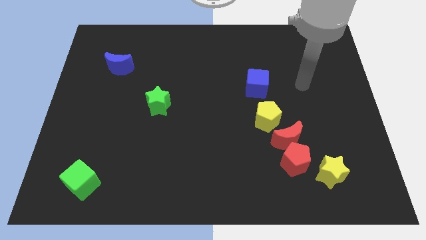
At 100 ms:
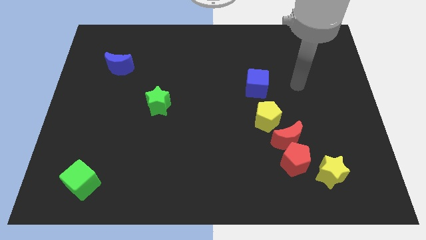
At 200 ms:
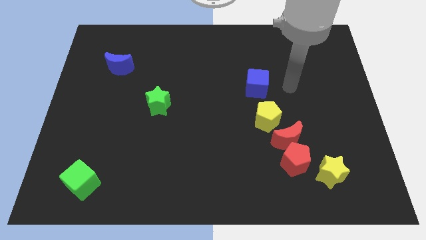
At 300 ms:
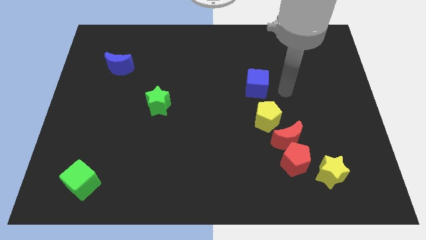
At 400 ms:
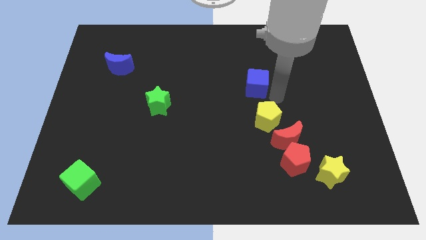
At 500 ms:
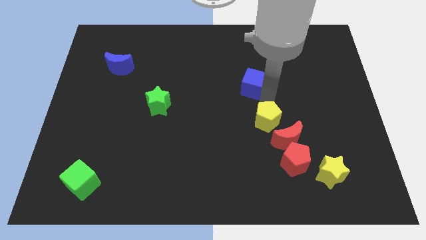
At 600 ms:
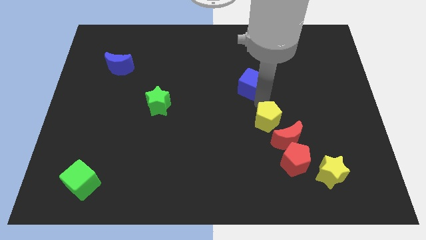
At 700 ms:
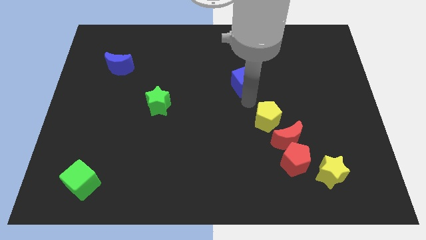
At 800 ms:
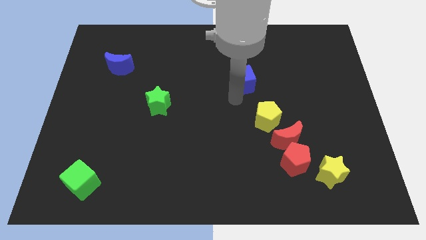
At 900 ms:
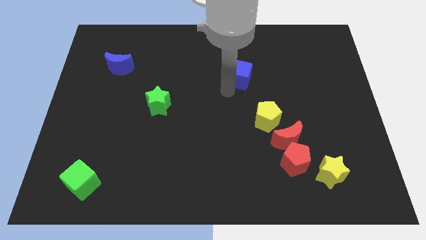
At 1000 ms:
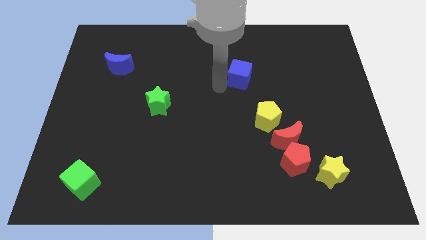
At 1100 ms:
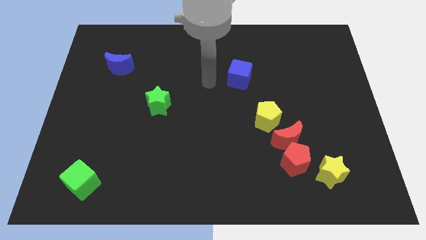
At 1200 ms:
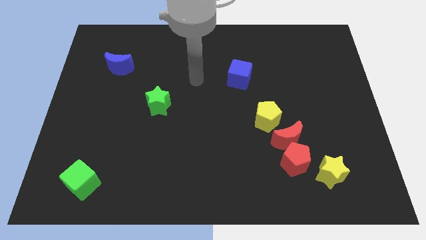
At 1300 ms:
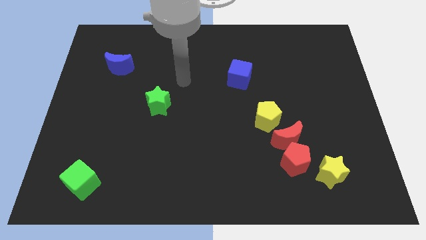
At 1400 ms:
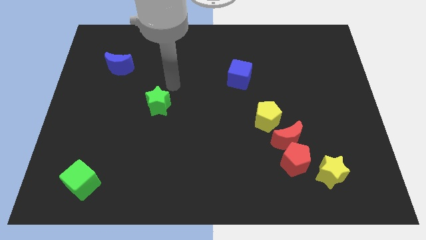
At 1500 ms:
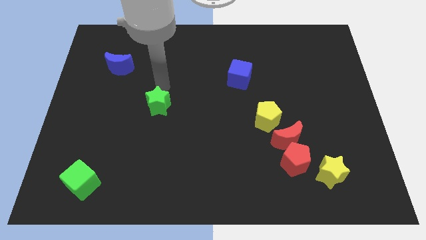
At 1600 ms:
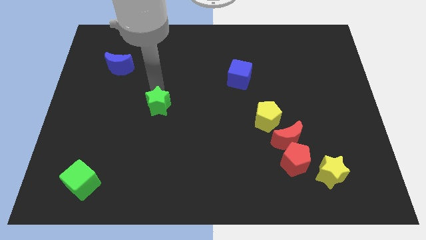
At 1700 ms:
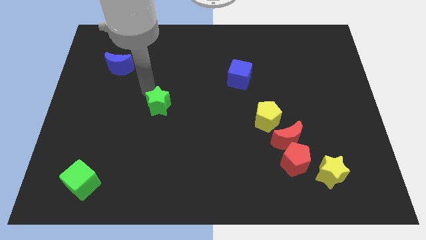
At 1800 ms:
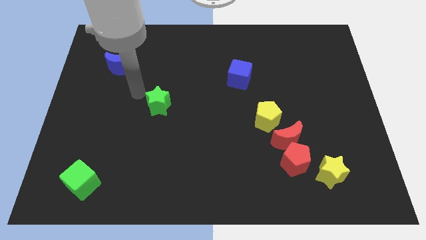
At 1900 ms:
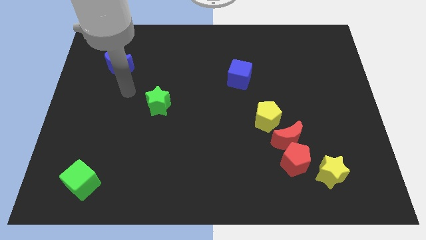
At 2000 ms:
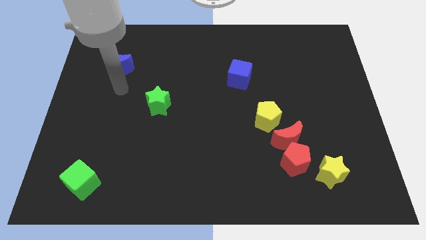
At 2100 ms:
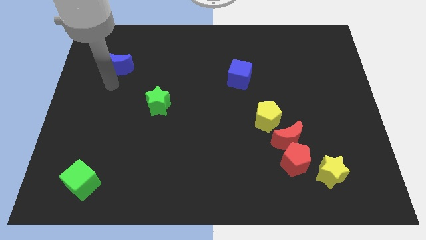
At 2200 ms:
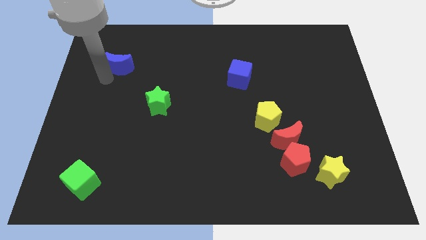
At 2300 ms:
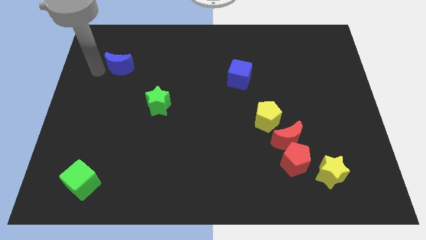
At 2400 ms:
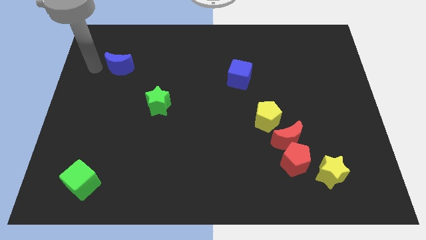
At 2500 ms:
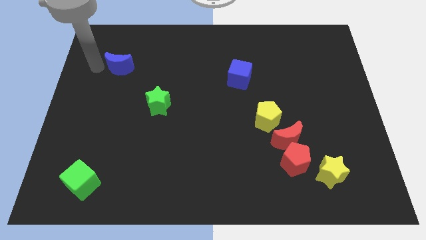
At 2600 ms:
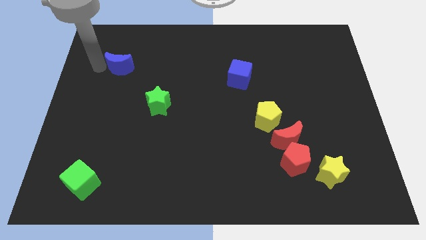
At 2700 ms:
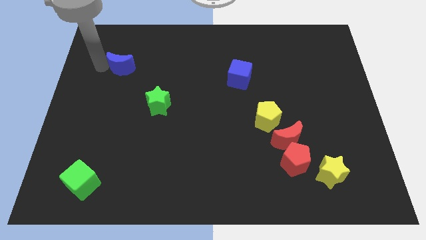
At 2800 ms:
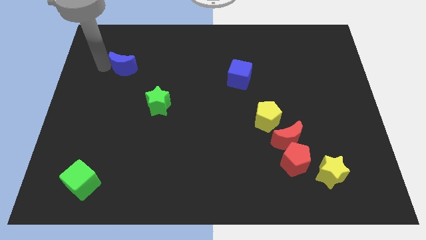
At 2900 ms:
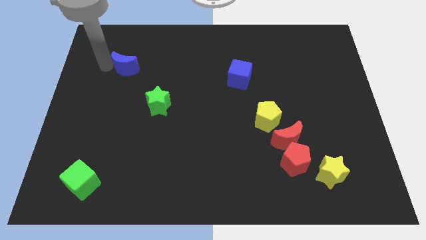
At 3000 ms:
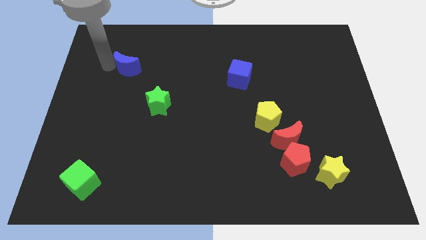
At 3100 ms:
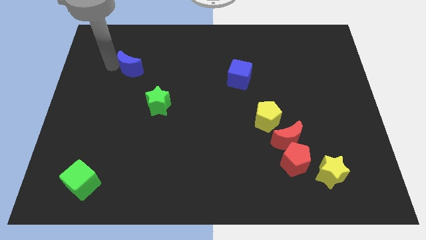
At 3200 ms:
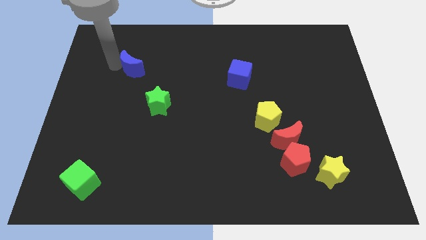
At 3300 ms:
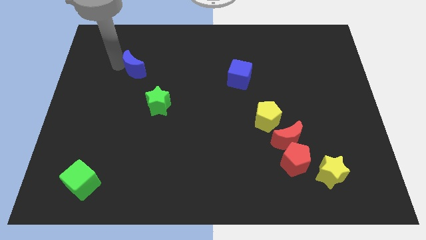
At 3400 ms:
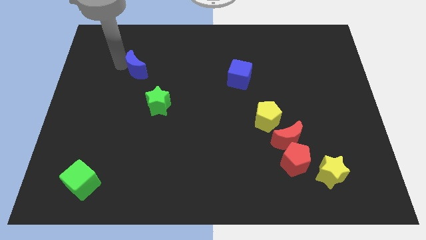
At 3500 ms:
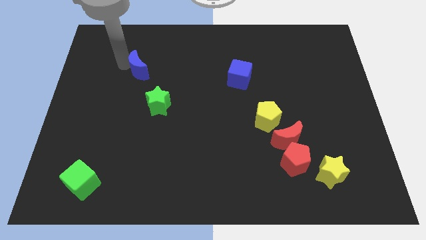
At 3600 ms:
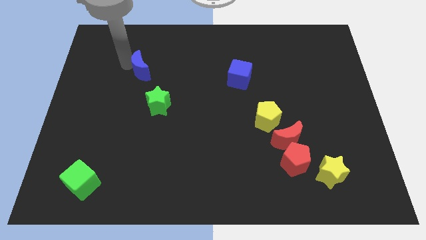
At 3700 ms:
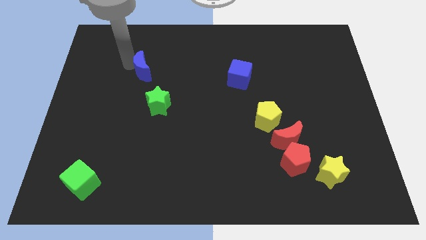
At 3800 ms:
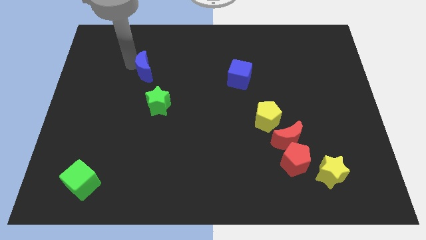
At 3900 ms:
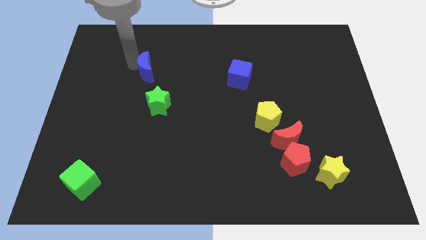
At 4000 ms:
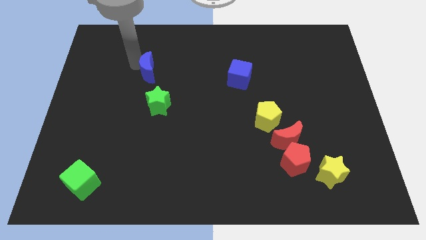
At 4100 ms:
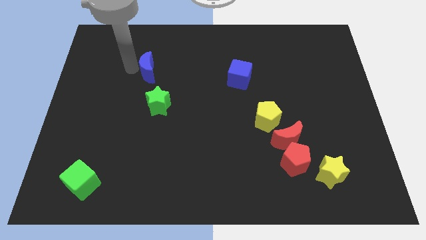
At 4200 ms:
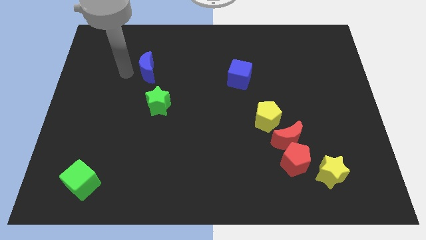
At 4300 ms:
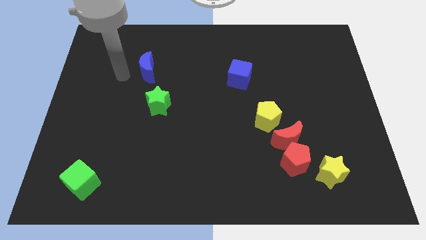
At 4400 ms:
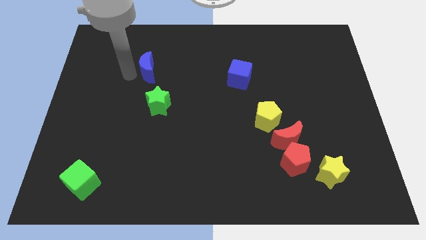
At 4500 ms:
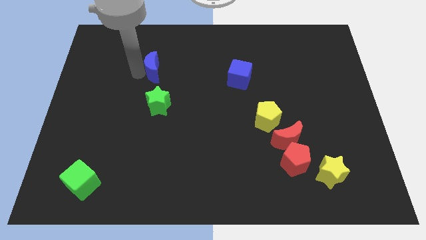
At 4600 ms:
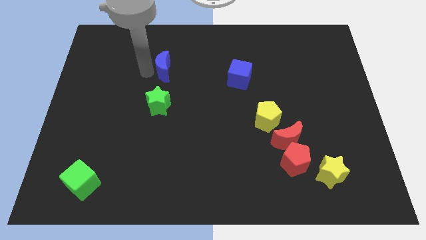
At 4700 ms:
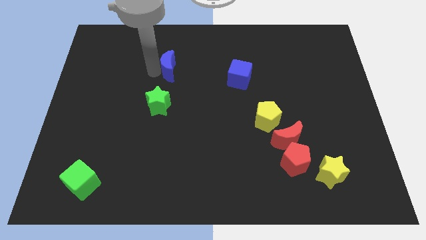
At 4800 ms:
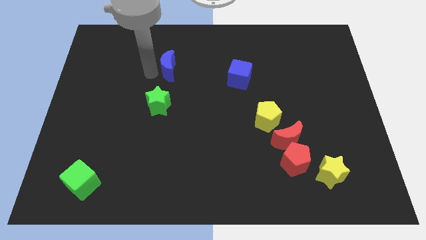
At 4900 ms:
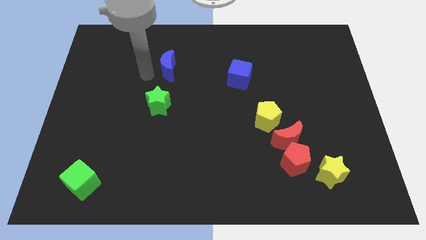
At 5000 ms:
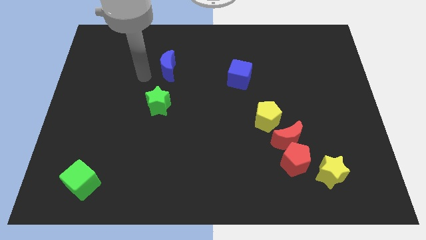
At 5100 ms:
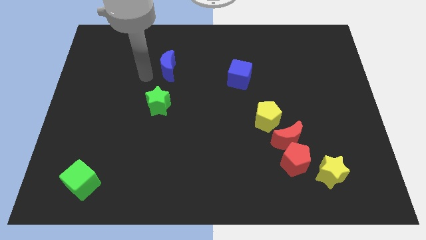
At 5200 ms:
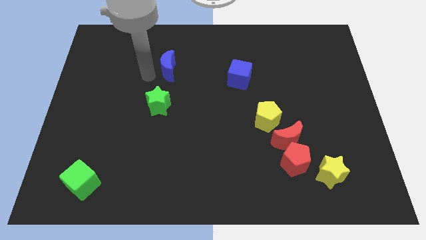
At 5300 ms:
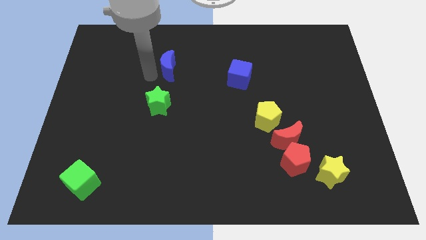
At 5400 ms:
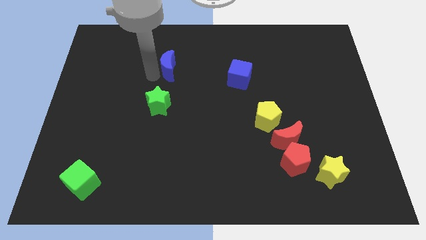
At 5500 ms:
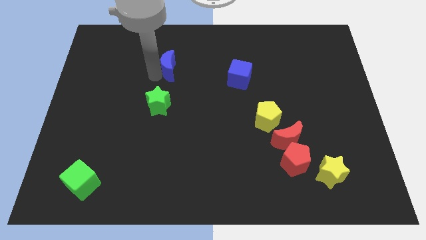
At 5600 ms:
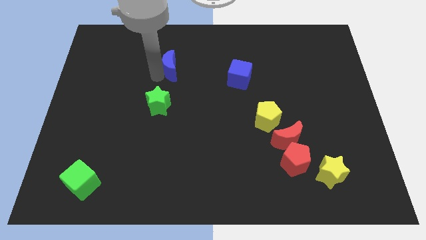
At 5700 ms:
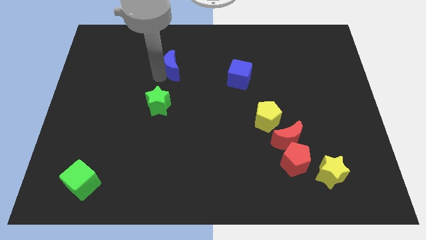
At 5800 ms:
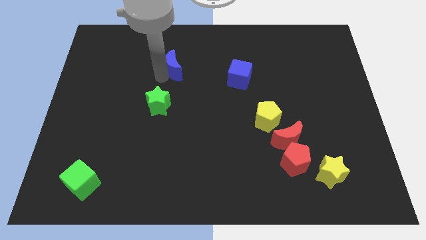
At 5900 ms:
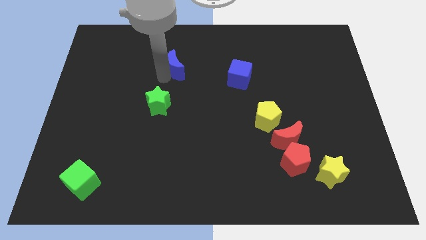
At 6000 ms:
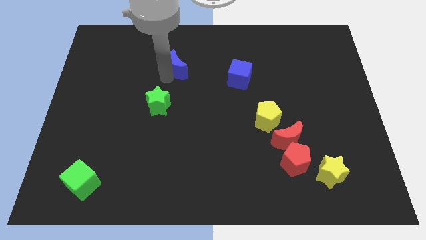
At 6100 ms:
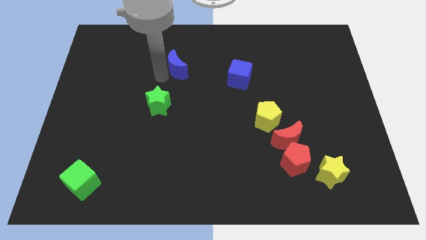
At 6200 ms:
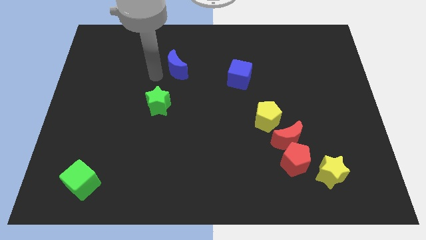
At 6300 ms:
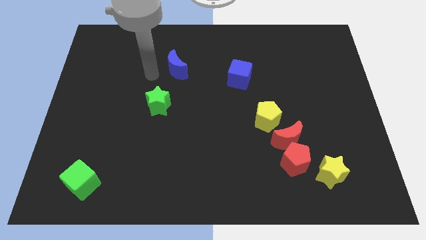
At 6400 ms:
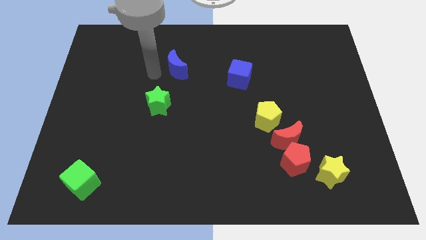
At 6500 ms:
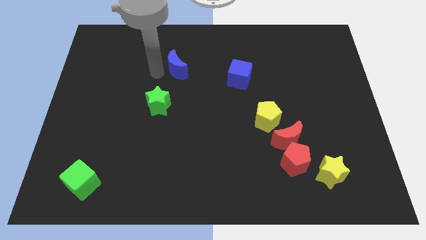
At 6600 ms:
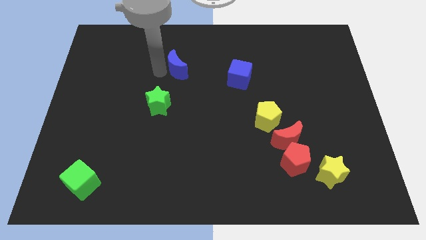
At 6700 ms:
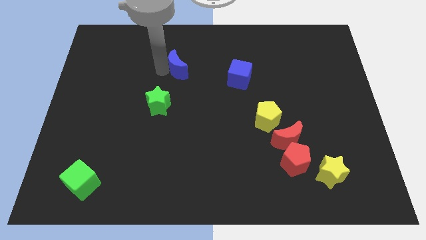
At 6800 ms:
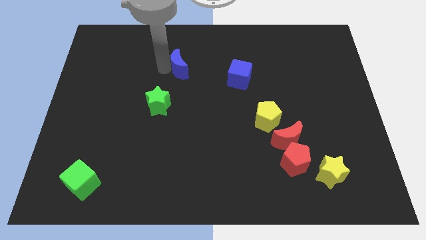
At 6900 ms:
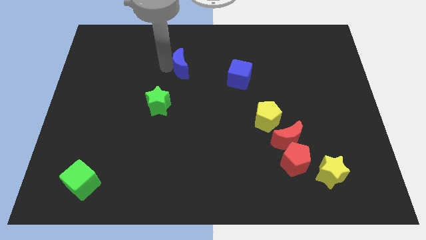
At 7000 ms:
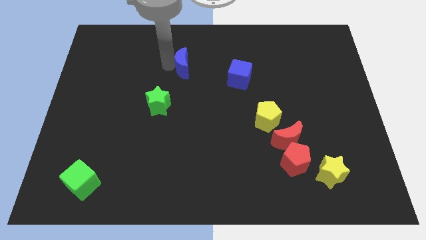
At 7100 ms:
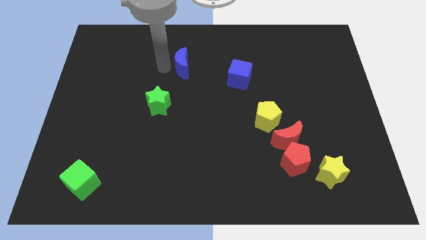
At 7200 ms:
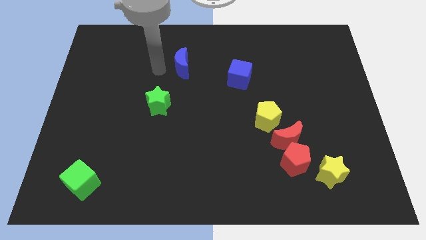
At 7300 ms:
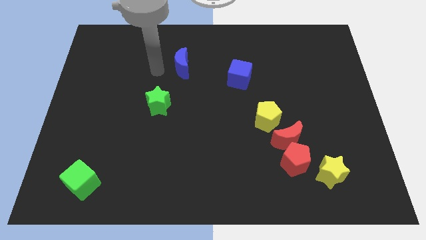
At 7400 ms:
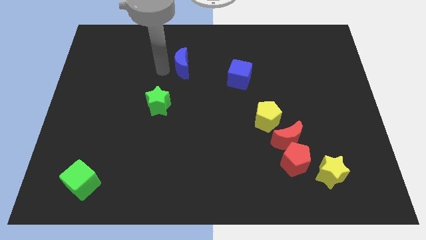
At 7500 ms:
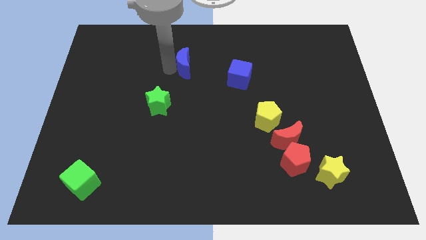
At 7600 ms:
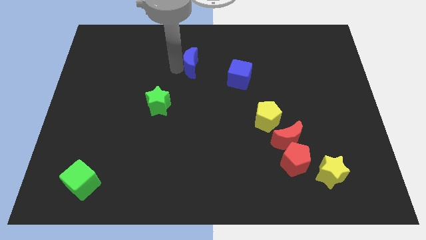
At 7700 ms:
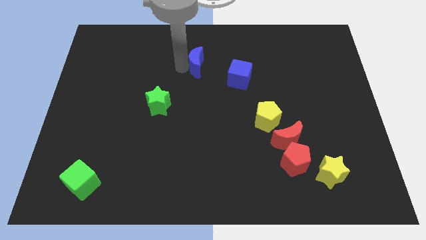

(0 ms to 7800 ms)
slide the blue moon to the right

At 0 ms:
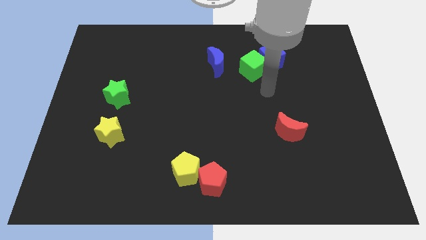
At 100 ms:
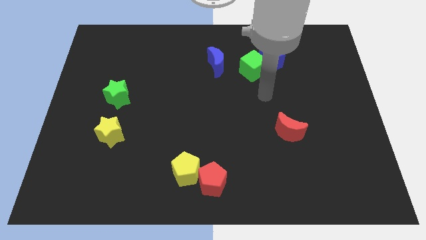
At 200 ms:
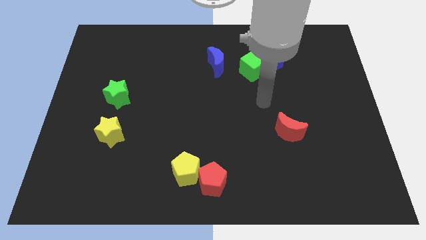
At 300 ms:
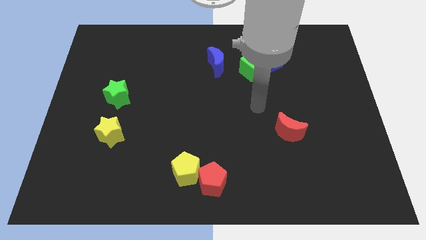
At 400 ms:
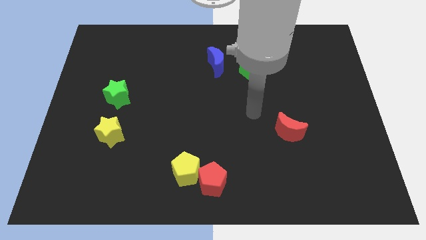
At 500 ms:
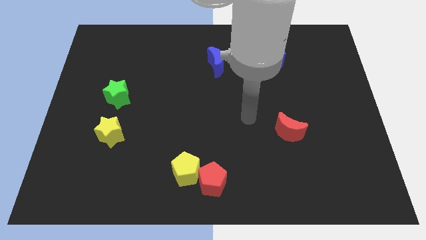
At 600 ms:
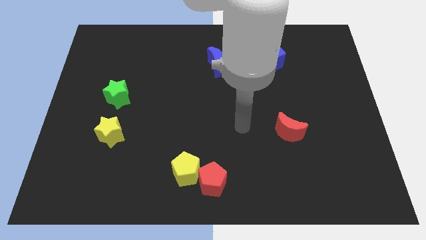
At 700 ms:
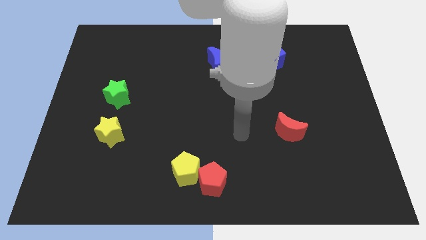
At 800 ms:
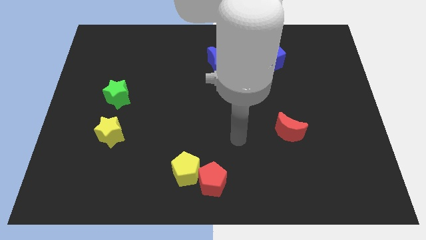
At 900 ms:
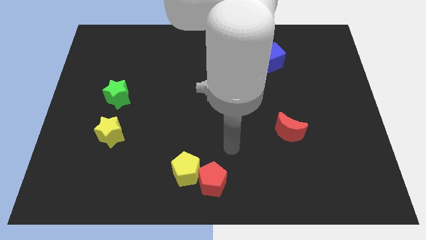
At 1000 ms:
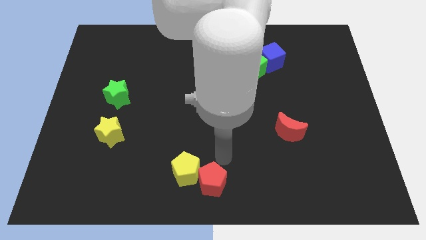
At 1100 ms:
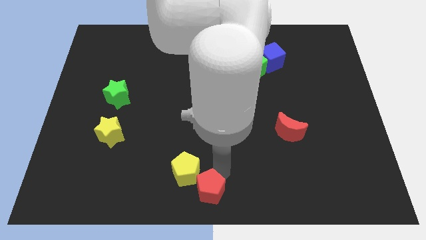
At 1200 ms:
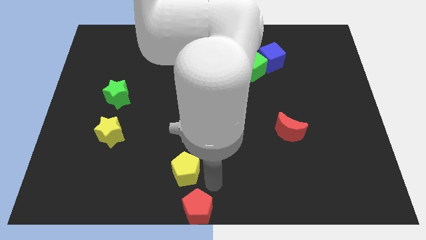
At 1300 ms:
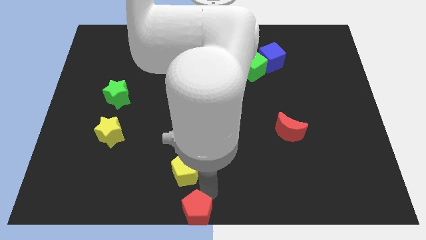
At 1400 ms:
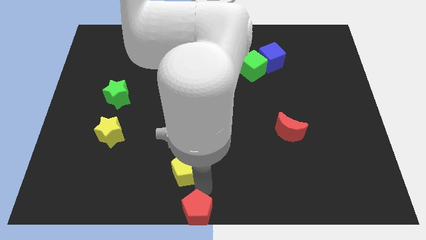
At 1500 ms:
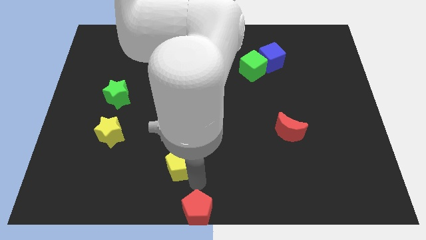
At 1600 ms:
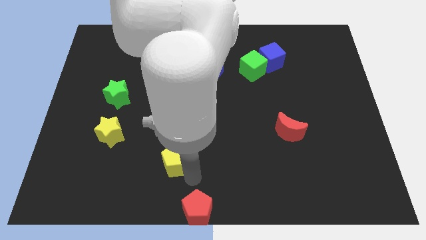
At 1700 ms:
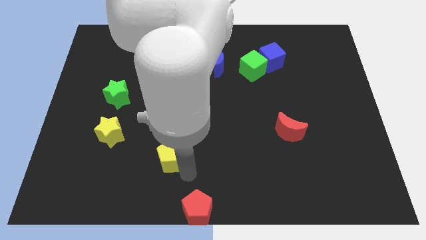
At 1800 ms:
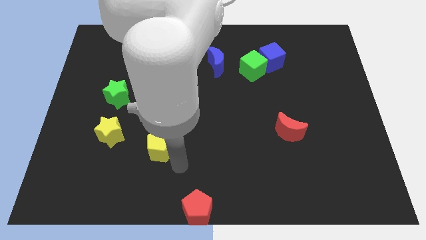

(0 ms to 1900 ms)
push the yellow pentagon a little bit diagonally up and to the left
